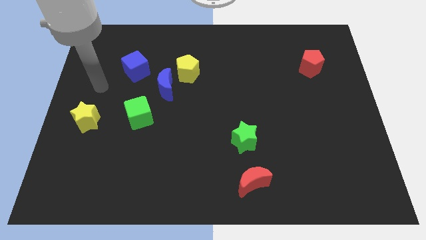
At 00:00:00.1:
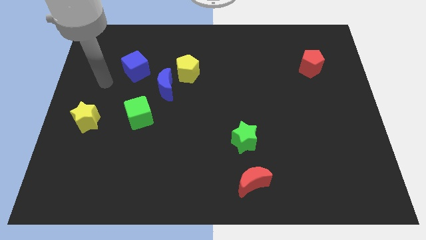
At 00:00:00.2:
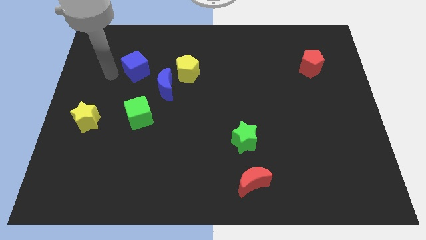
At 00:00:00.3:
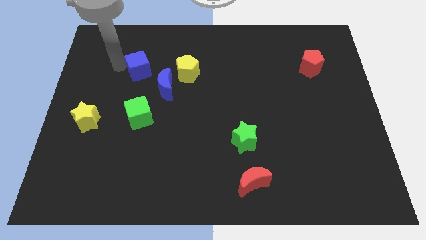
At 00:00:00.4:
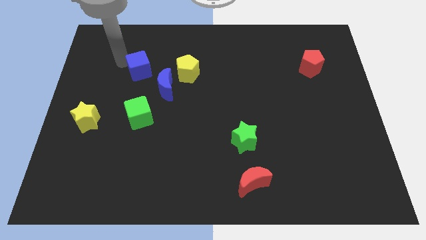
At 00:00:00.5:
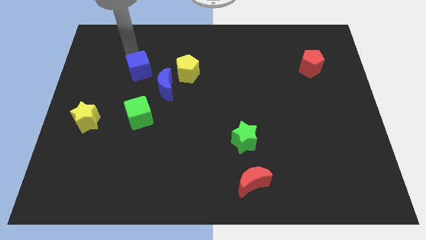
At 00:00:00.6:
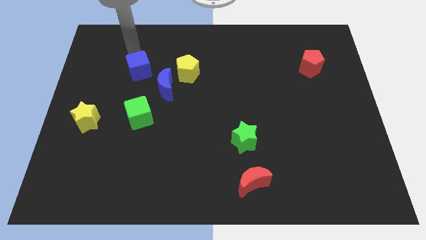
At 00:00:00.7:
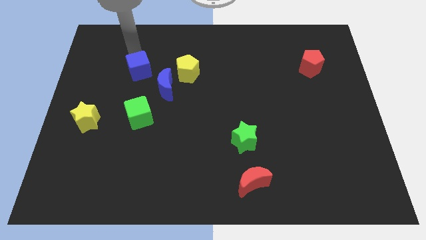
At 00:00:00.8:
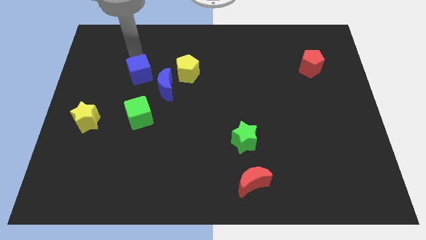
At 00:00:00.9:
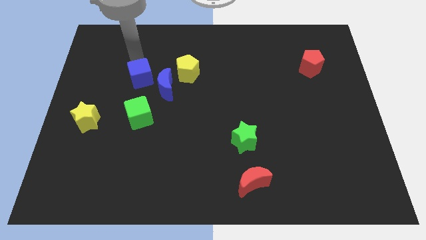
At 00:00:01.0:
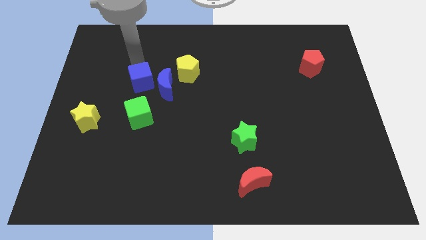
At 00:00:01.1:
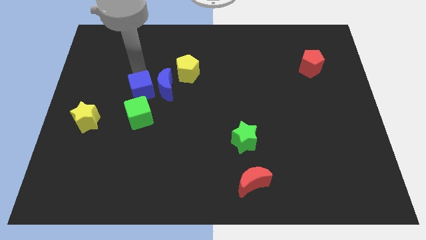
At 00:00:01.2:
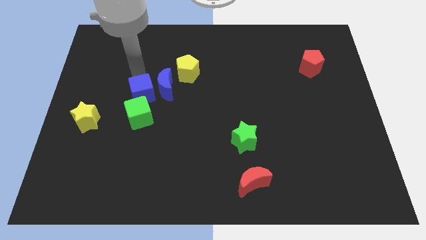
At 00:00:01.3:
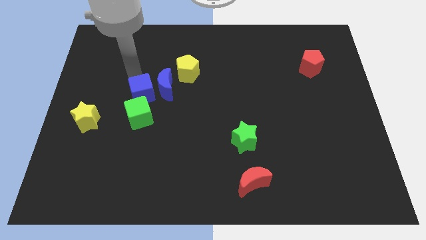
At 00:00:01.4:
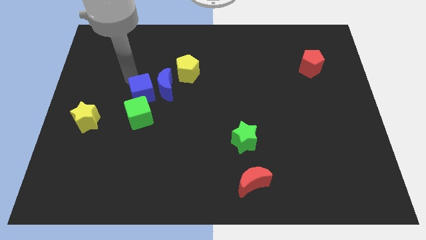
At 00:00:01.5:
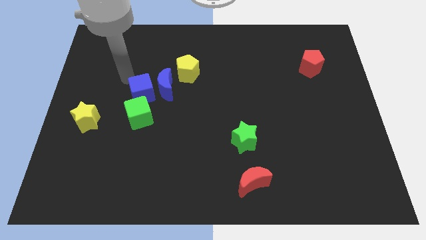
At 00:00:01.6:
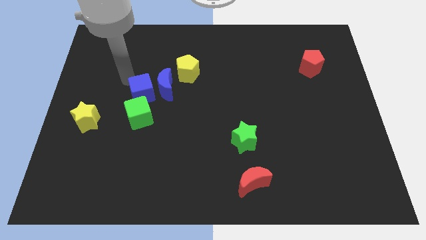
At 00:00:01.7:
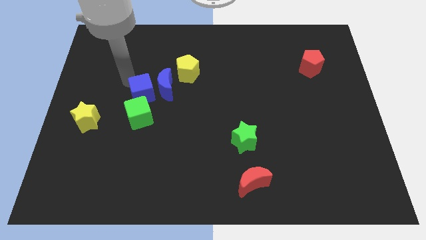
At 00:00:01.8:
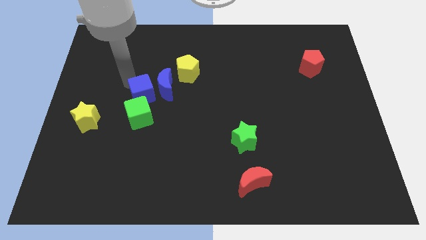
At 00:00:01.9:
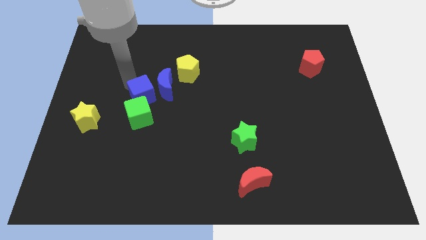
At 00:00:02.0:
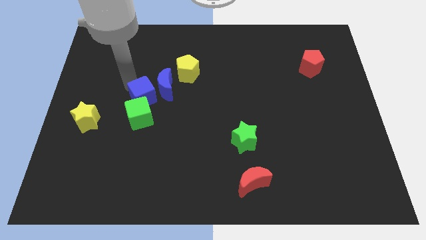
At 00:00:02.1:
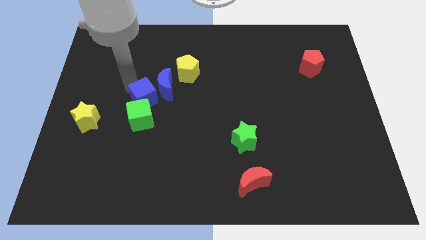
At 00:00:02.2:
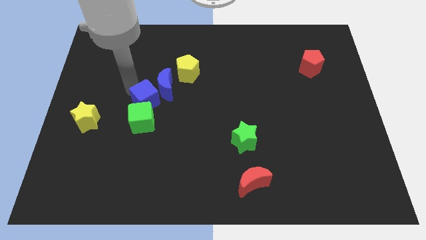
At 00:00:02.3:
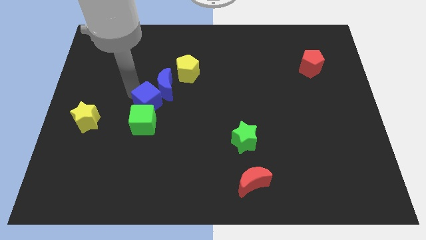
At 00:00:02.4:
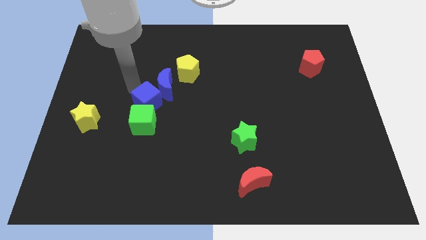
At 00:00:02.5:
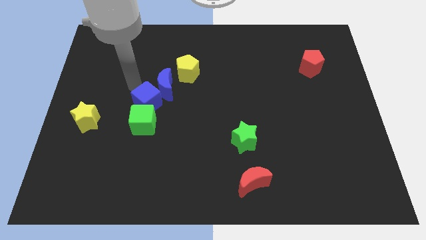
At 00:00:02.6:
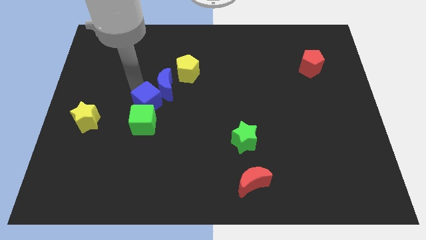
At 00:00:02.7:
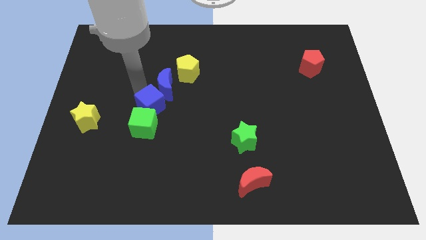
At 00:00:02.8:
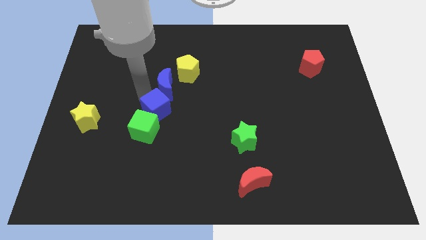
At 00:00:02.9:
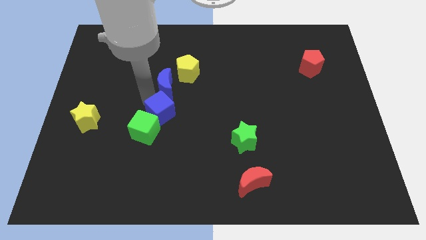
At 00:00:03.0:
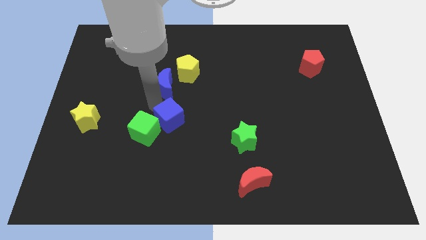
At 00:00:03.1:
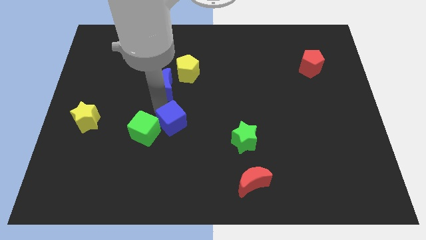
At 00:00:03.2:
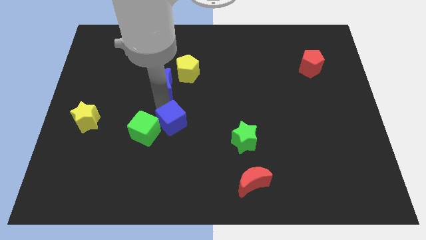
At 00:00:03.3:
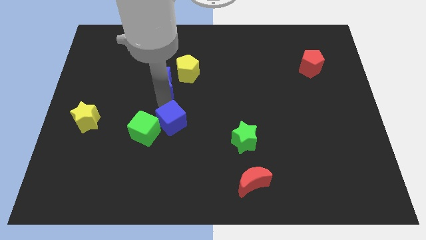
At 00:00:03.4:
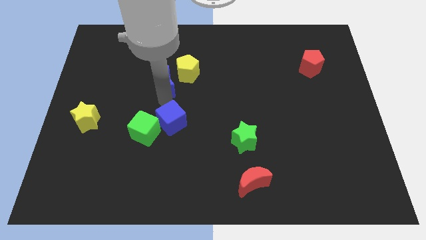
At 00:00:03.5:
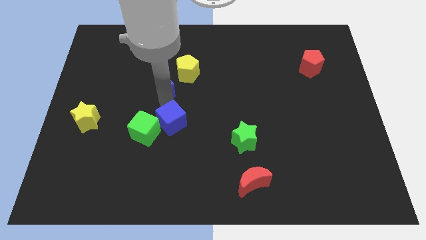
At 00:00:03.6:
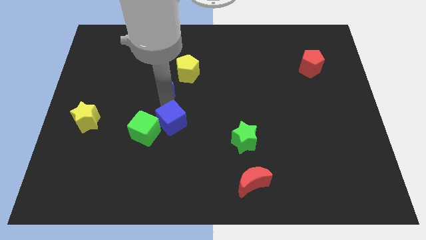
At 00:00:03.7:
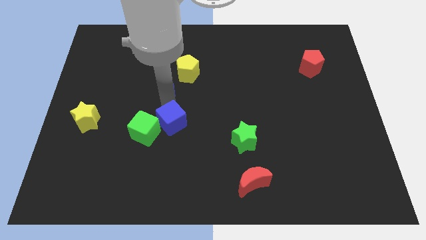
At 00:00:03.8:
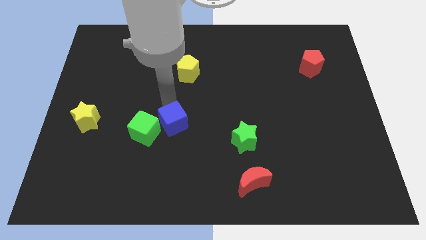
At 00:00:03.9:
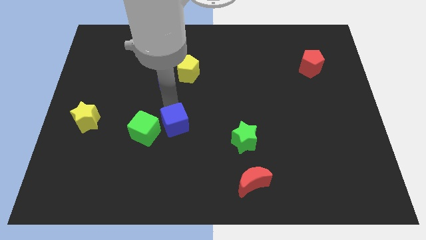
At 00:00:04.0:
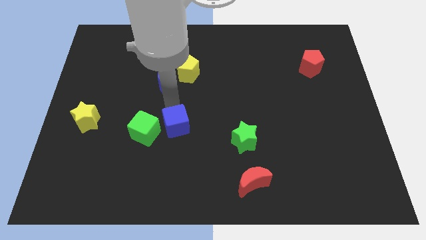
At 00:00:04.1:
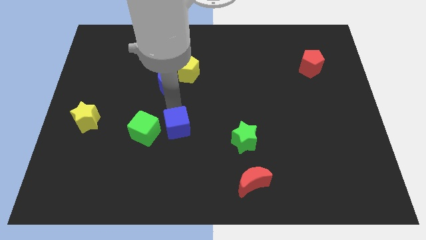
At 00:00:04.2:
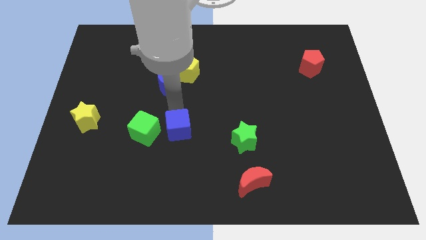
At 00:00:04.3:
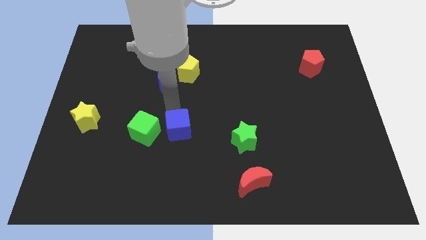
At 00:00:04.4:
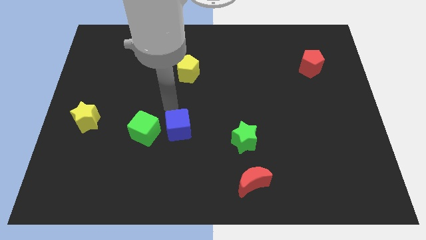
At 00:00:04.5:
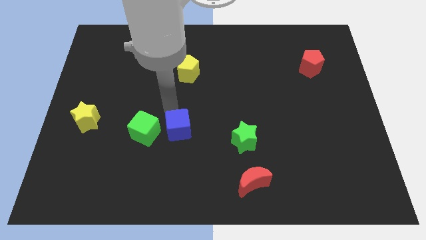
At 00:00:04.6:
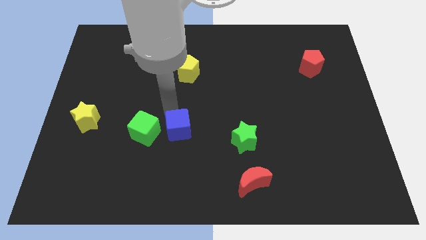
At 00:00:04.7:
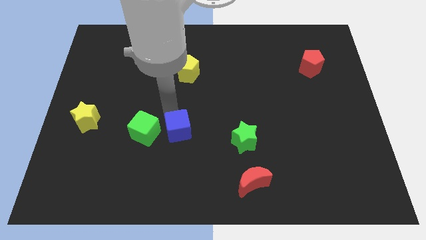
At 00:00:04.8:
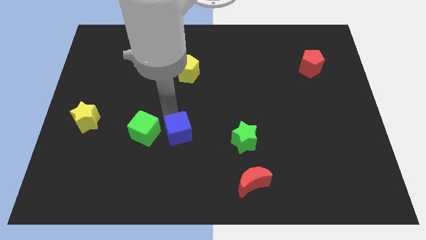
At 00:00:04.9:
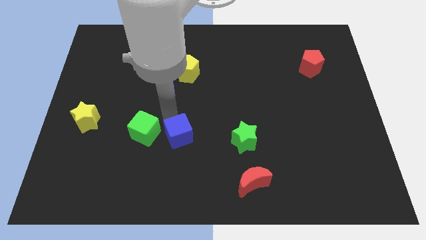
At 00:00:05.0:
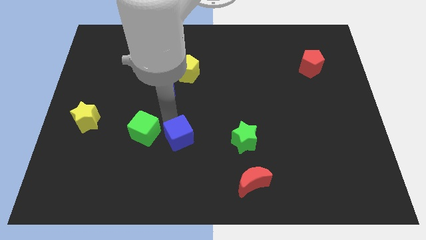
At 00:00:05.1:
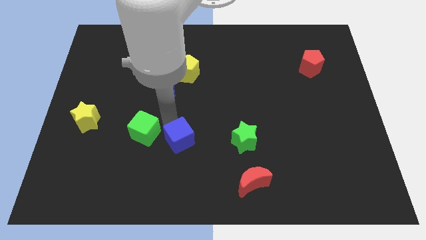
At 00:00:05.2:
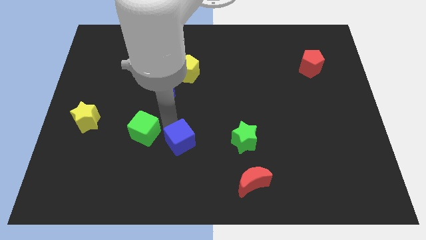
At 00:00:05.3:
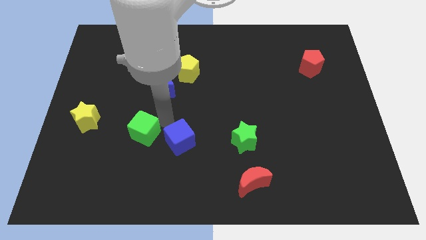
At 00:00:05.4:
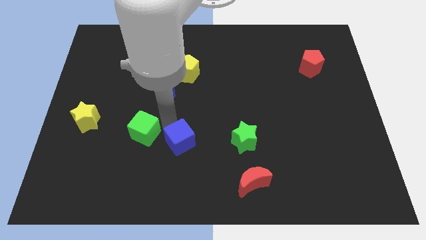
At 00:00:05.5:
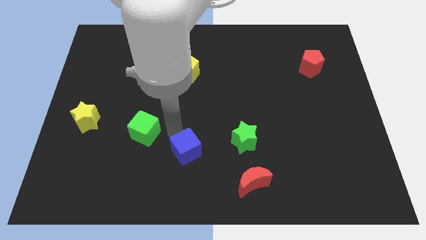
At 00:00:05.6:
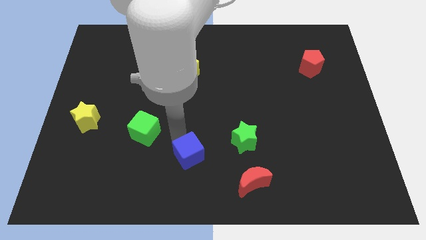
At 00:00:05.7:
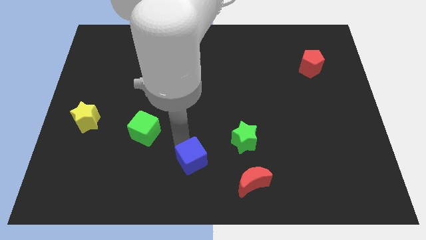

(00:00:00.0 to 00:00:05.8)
put the blue cube to the bottom side

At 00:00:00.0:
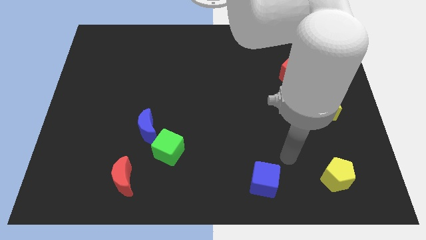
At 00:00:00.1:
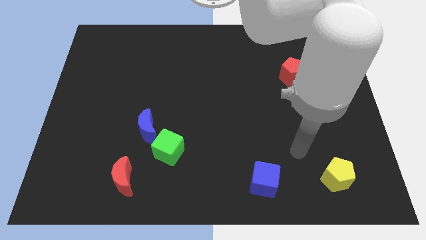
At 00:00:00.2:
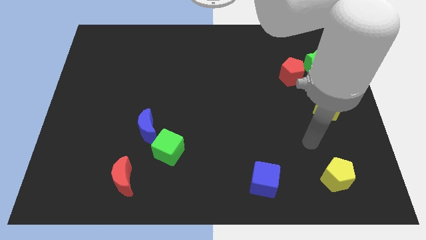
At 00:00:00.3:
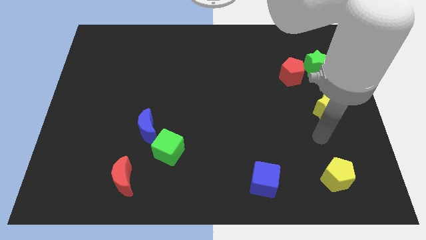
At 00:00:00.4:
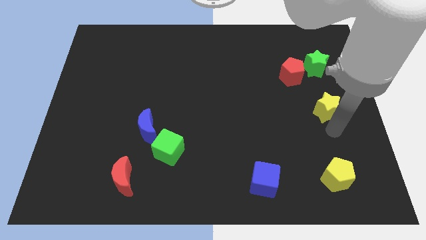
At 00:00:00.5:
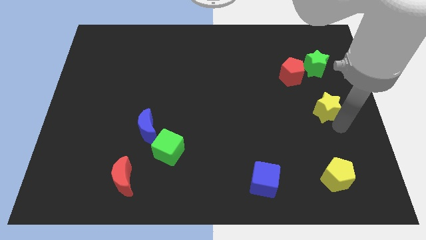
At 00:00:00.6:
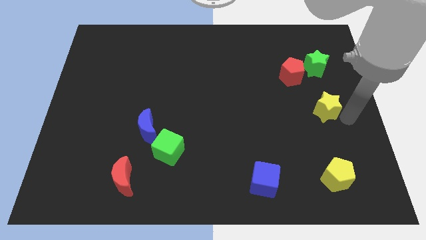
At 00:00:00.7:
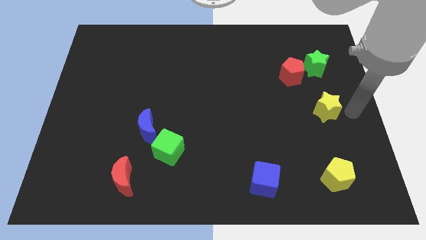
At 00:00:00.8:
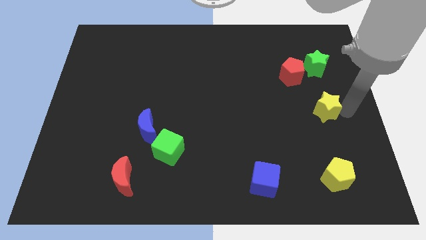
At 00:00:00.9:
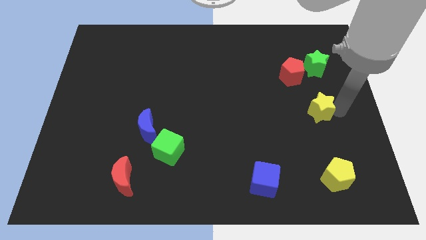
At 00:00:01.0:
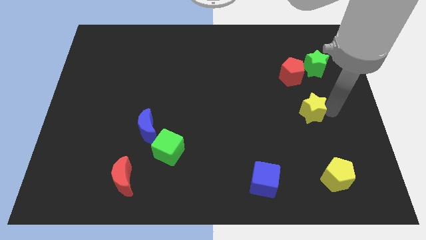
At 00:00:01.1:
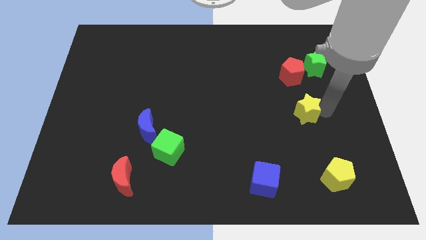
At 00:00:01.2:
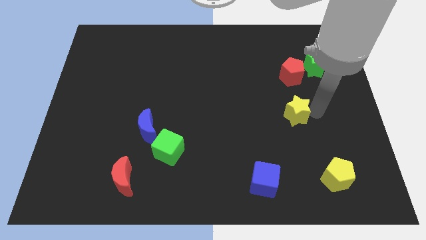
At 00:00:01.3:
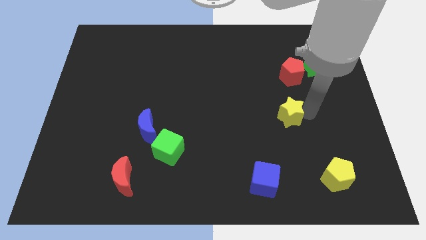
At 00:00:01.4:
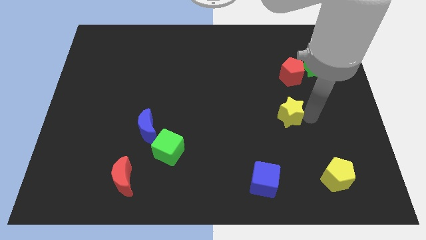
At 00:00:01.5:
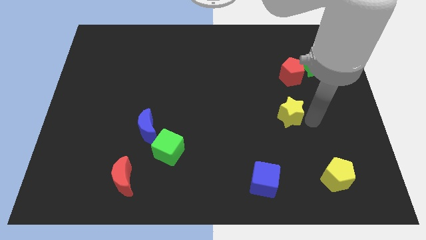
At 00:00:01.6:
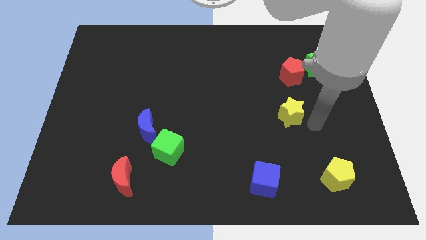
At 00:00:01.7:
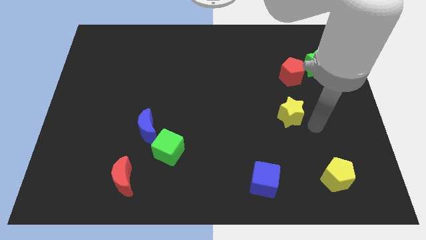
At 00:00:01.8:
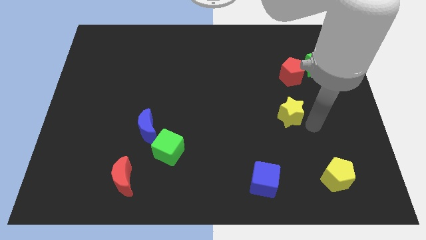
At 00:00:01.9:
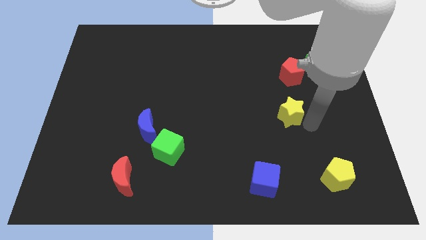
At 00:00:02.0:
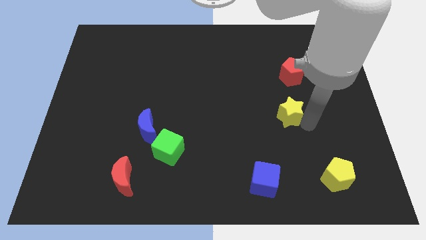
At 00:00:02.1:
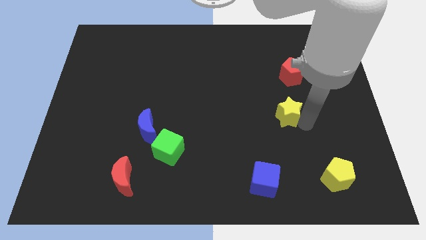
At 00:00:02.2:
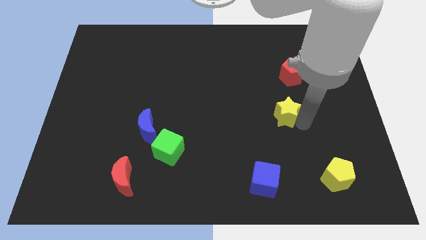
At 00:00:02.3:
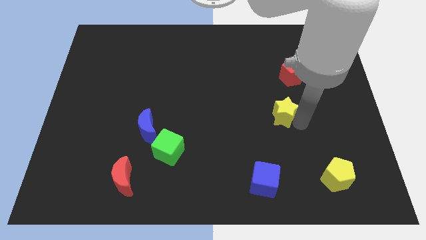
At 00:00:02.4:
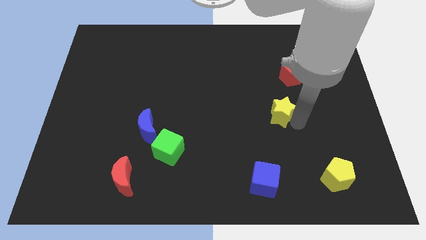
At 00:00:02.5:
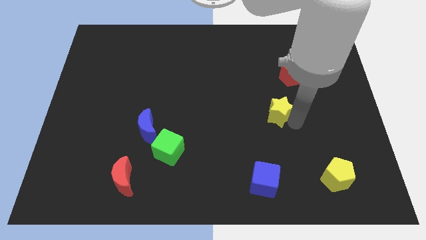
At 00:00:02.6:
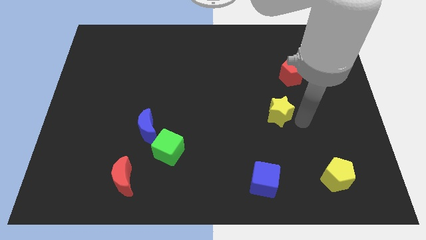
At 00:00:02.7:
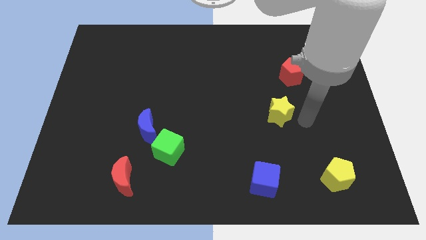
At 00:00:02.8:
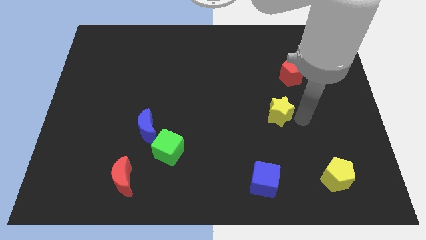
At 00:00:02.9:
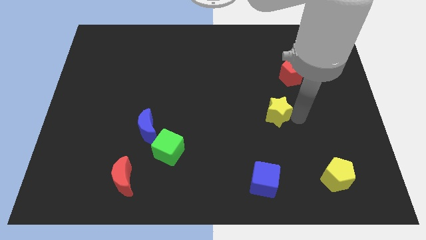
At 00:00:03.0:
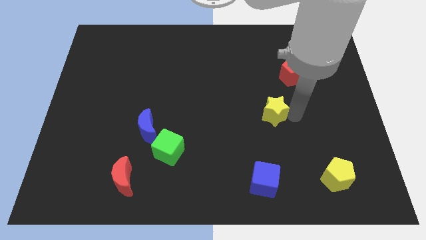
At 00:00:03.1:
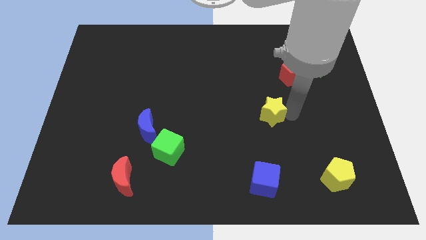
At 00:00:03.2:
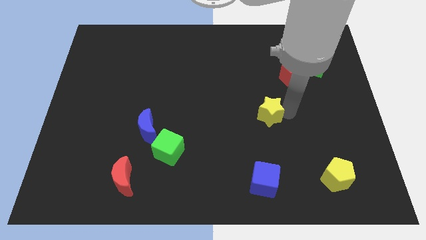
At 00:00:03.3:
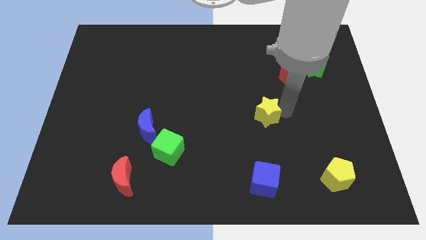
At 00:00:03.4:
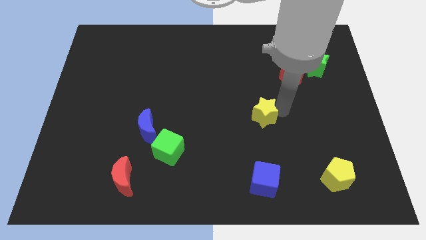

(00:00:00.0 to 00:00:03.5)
push the yellow star to the center of the board
